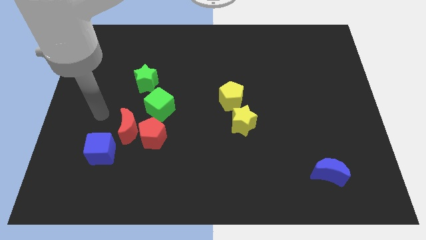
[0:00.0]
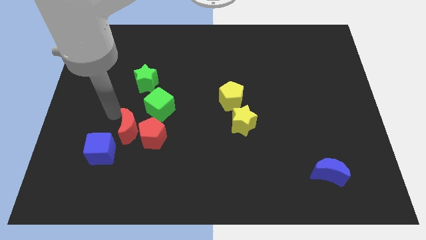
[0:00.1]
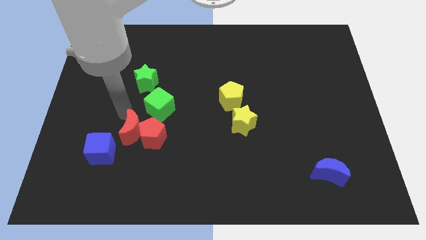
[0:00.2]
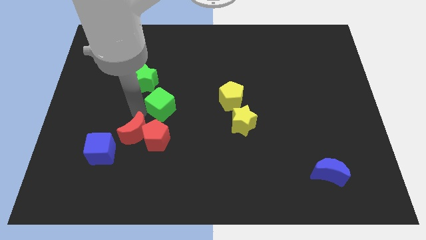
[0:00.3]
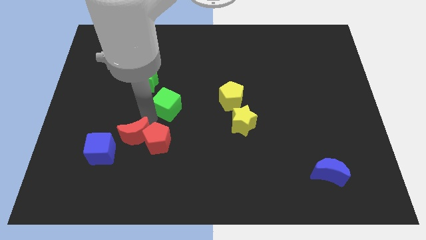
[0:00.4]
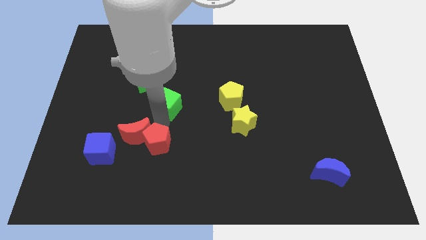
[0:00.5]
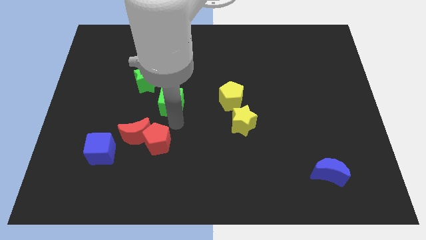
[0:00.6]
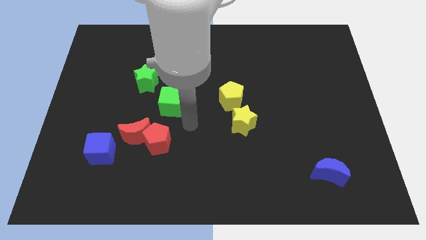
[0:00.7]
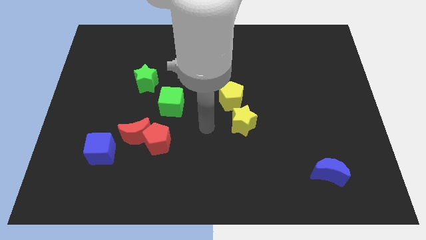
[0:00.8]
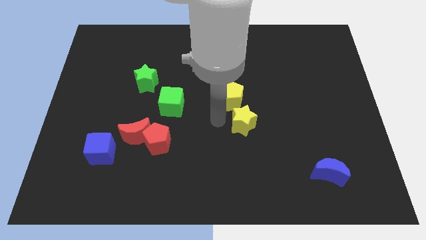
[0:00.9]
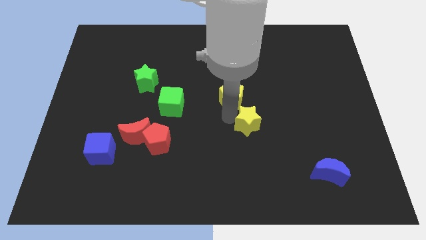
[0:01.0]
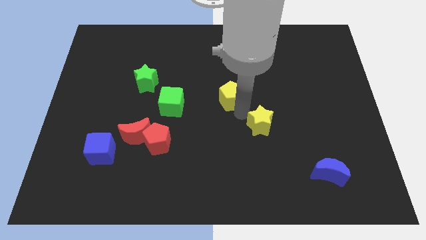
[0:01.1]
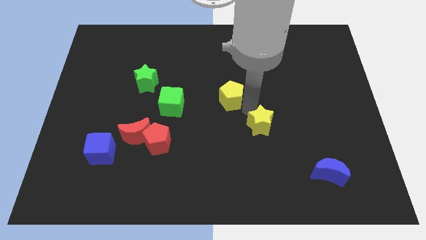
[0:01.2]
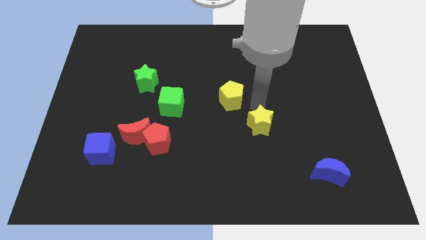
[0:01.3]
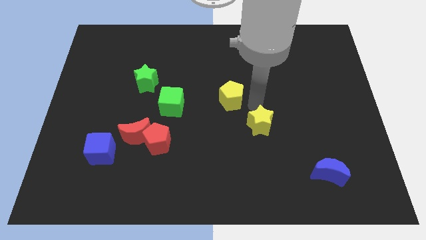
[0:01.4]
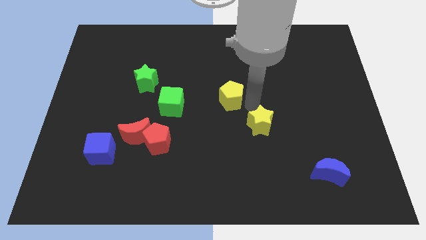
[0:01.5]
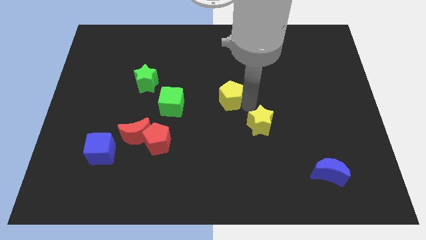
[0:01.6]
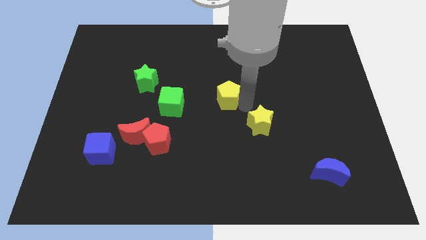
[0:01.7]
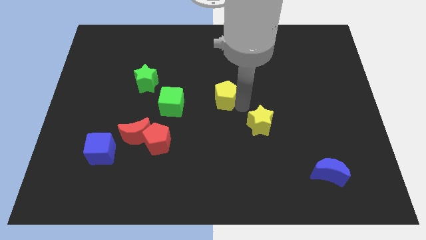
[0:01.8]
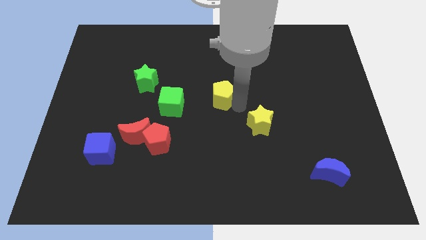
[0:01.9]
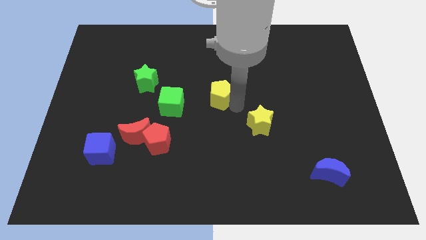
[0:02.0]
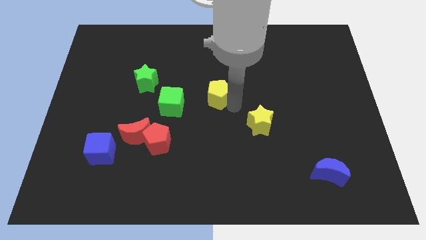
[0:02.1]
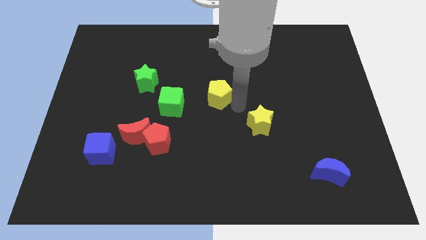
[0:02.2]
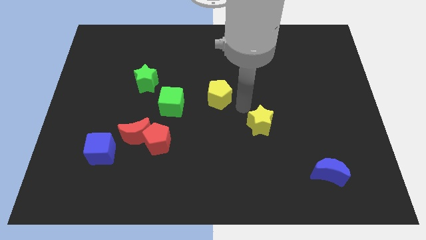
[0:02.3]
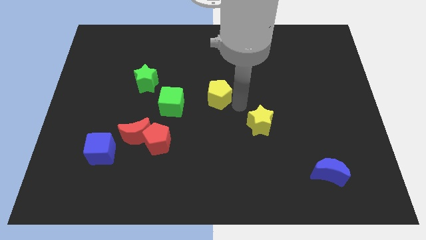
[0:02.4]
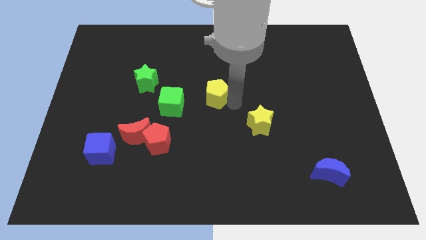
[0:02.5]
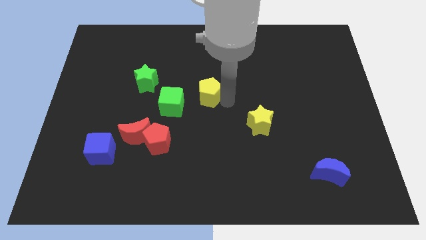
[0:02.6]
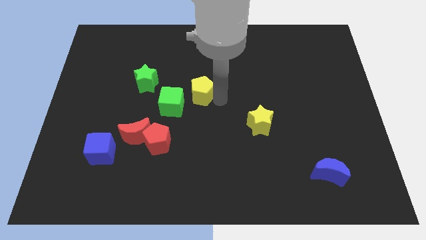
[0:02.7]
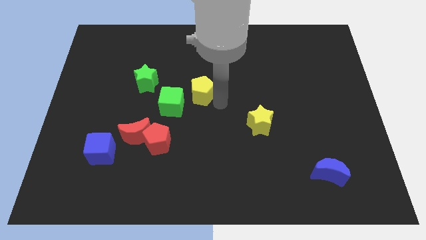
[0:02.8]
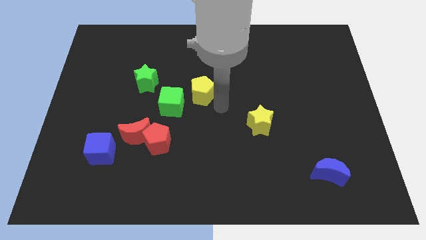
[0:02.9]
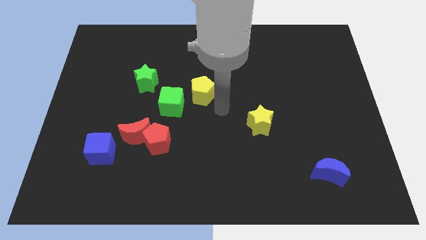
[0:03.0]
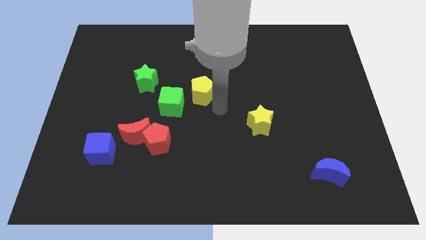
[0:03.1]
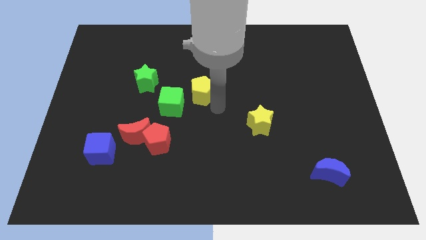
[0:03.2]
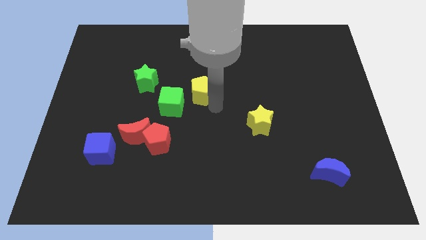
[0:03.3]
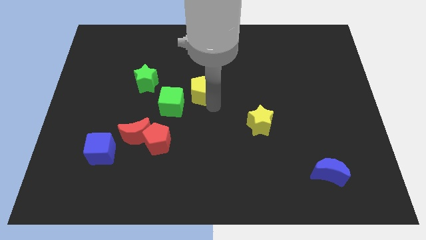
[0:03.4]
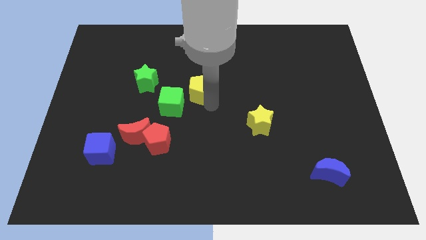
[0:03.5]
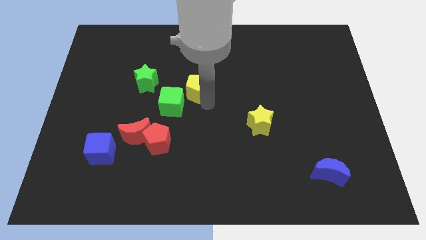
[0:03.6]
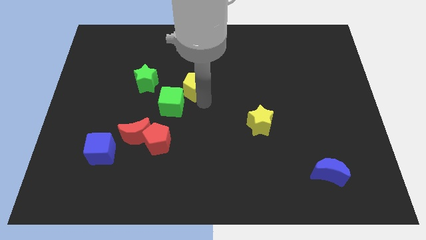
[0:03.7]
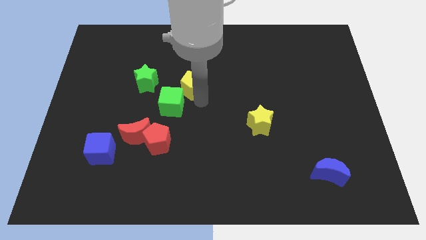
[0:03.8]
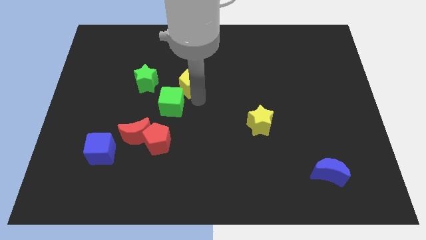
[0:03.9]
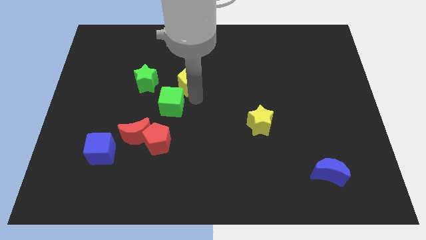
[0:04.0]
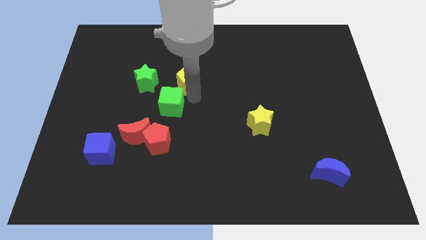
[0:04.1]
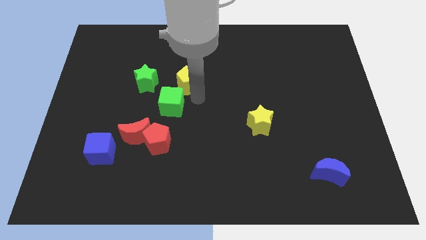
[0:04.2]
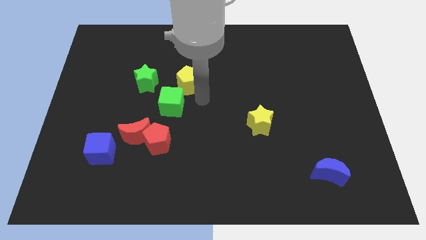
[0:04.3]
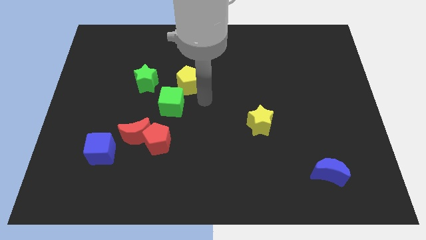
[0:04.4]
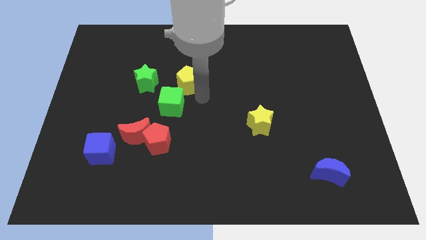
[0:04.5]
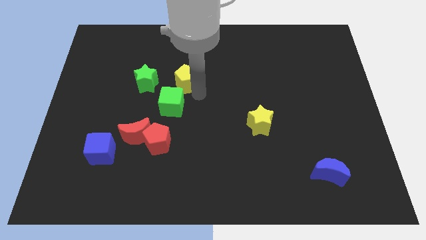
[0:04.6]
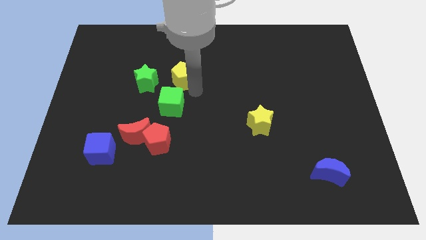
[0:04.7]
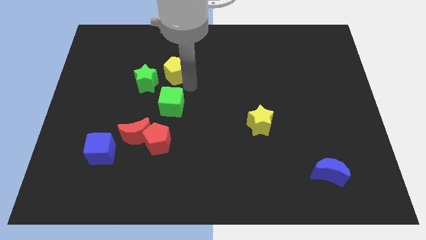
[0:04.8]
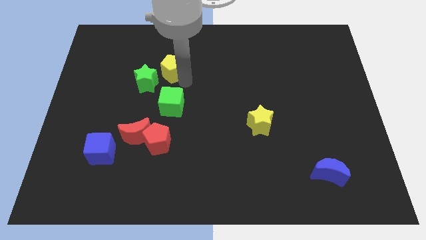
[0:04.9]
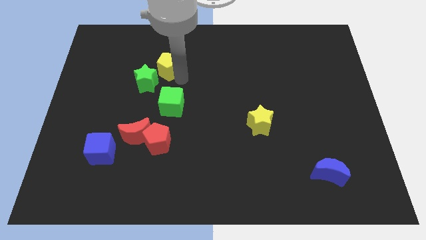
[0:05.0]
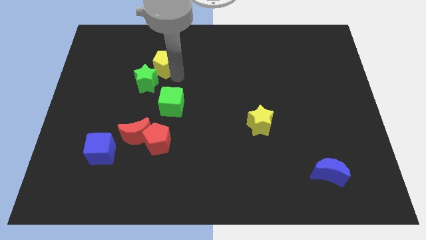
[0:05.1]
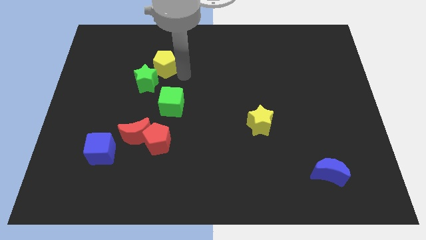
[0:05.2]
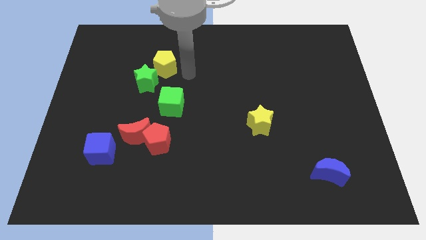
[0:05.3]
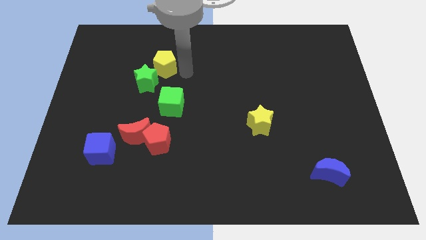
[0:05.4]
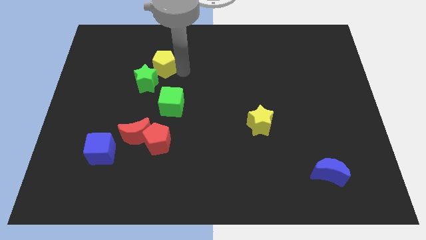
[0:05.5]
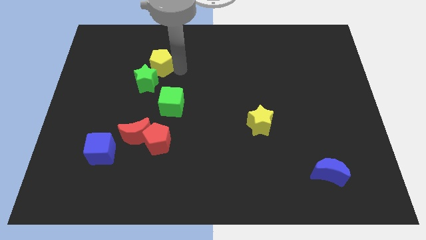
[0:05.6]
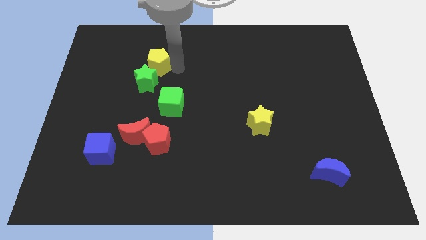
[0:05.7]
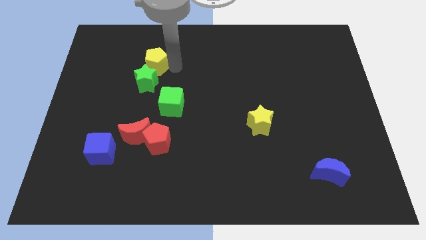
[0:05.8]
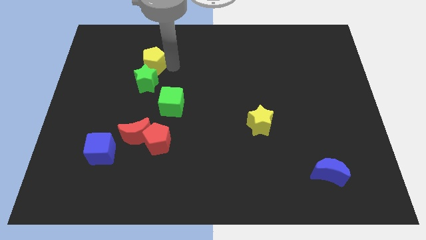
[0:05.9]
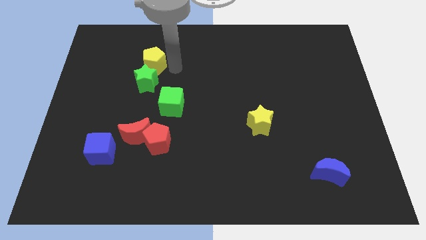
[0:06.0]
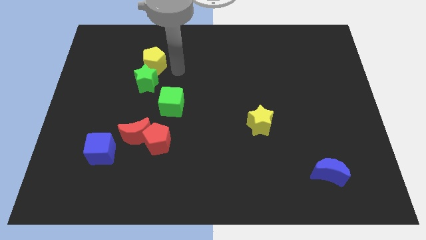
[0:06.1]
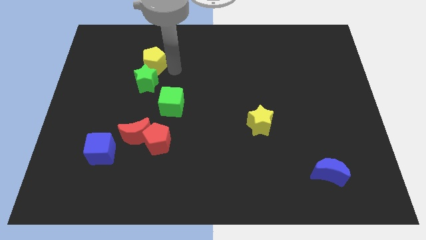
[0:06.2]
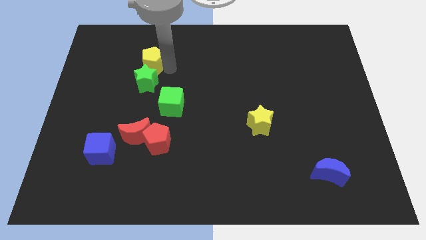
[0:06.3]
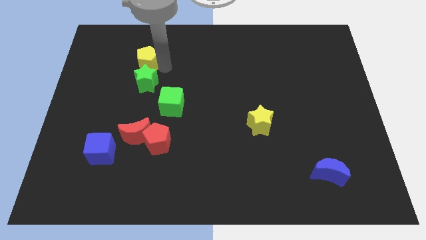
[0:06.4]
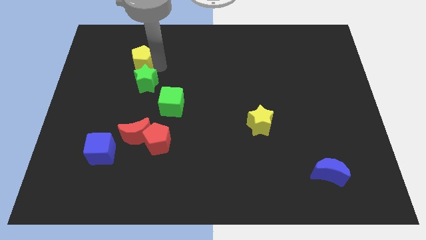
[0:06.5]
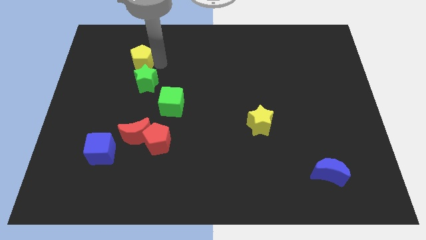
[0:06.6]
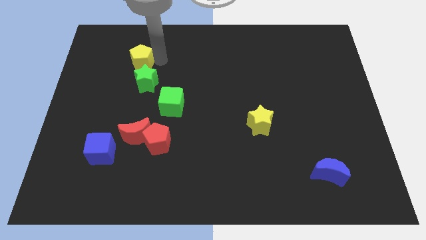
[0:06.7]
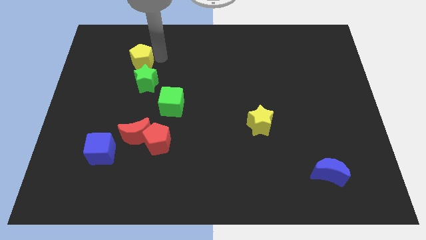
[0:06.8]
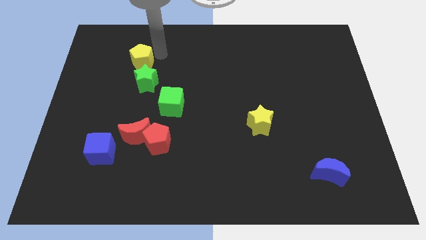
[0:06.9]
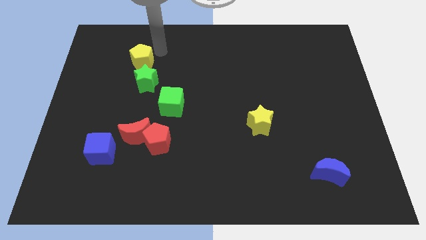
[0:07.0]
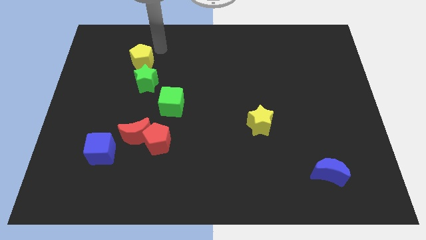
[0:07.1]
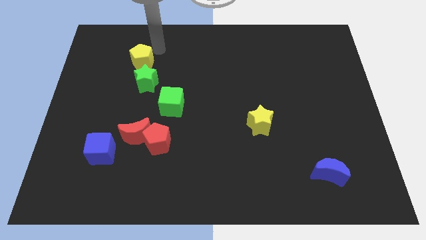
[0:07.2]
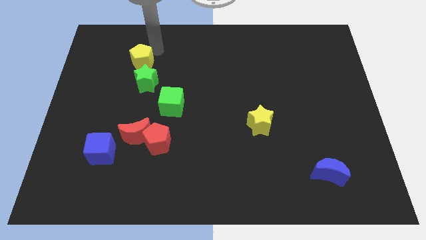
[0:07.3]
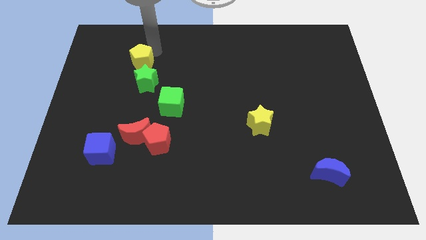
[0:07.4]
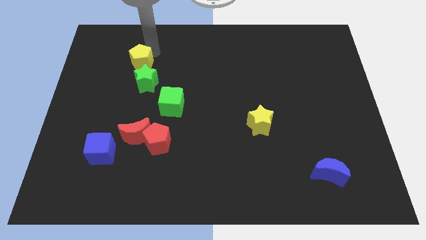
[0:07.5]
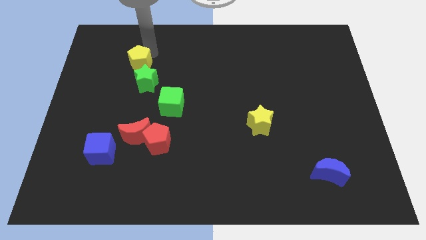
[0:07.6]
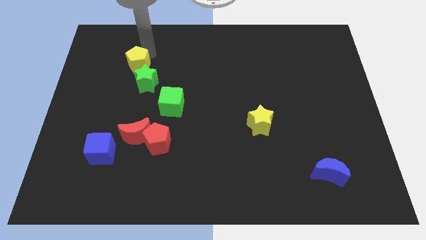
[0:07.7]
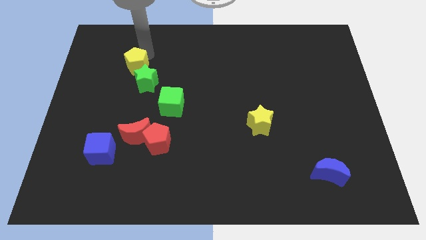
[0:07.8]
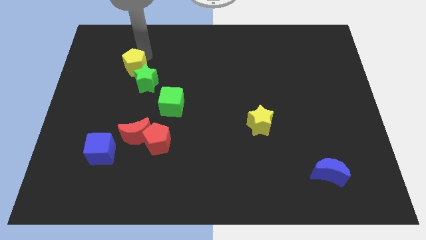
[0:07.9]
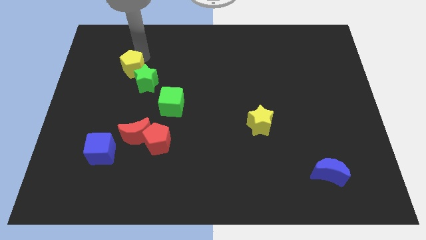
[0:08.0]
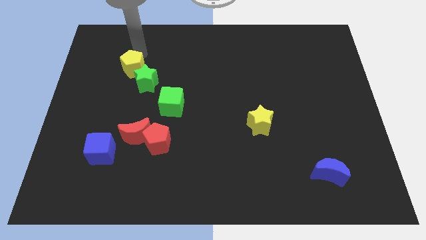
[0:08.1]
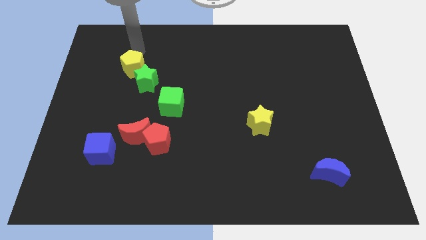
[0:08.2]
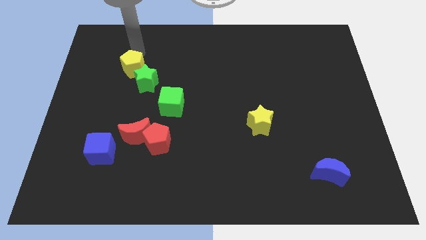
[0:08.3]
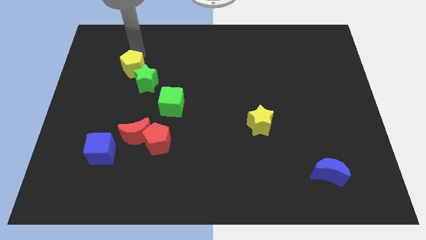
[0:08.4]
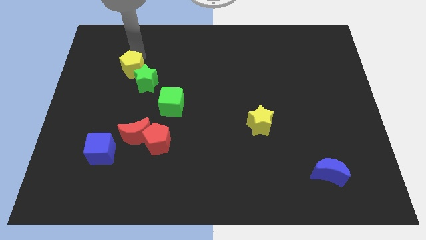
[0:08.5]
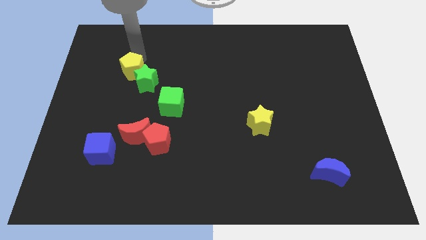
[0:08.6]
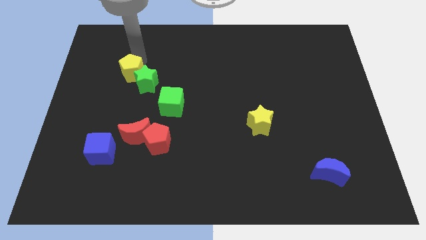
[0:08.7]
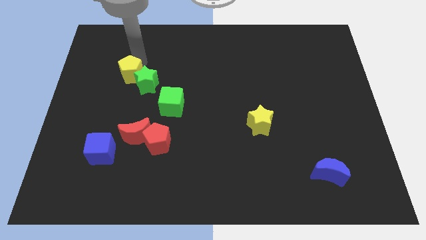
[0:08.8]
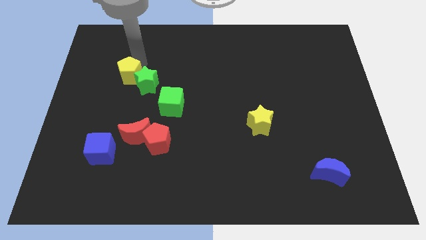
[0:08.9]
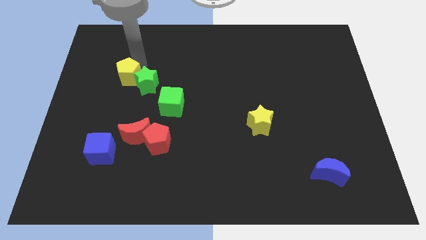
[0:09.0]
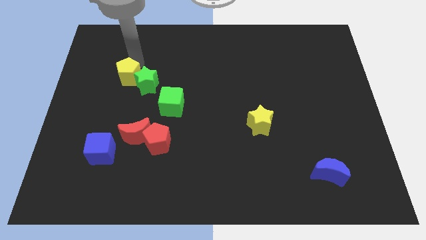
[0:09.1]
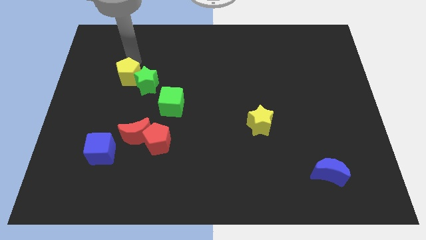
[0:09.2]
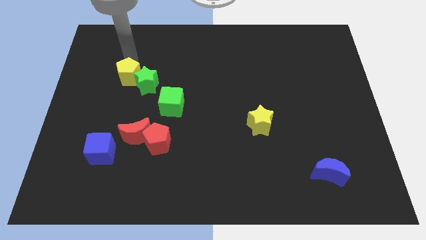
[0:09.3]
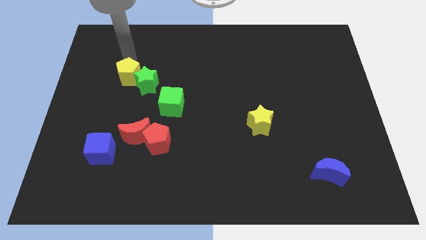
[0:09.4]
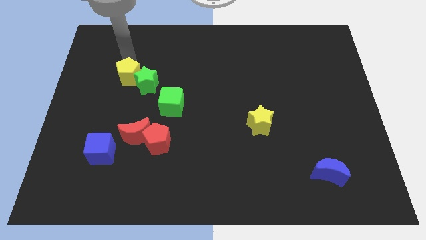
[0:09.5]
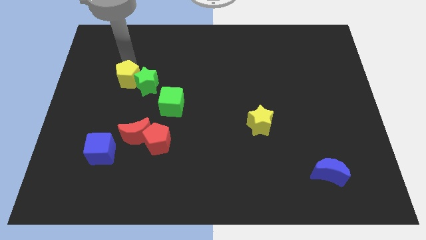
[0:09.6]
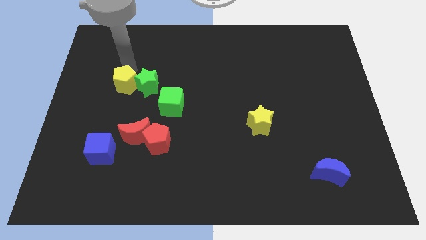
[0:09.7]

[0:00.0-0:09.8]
slide the yellow pentagon to the bottom left of the green star
